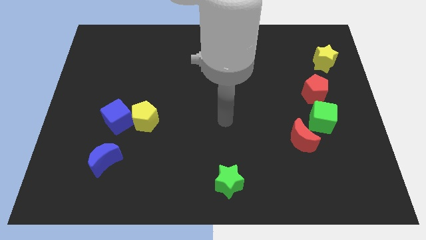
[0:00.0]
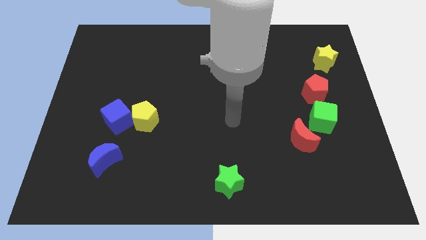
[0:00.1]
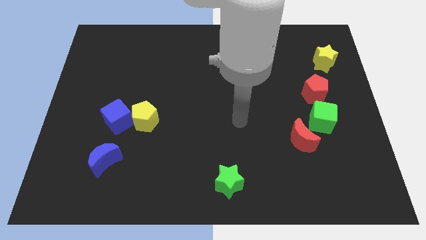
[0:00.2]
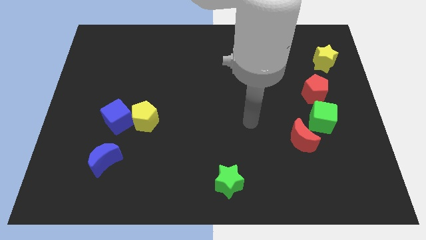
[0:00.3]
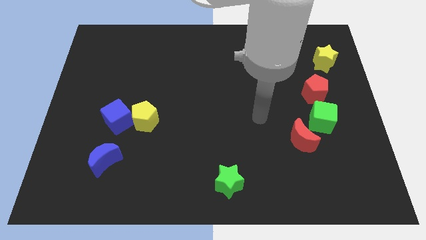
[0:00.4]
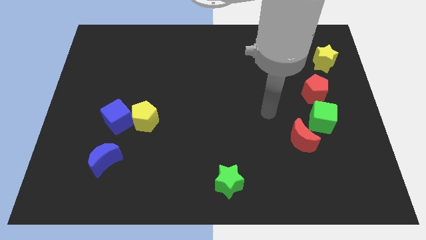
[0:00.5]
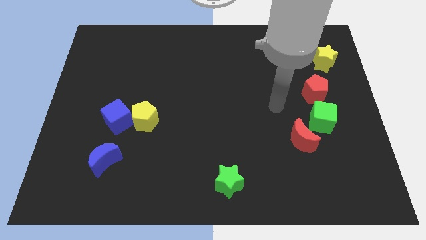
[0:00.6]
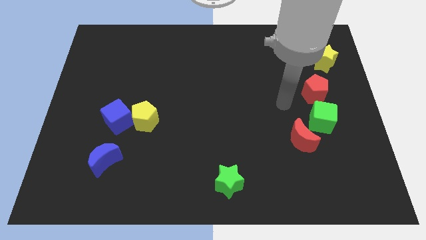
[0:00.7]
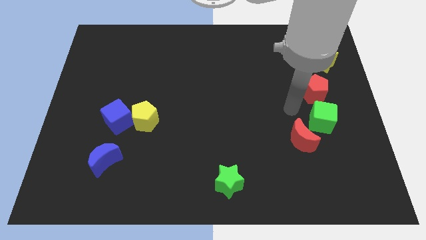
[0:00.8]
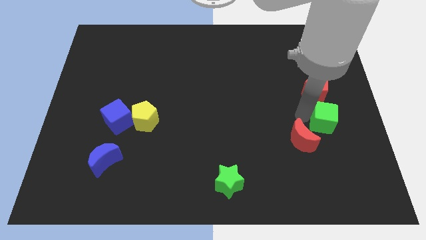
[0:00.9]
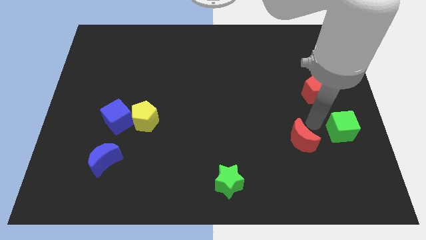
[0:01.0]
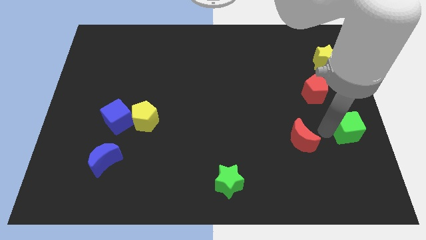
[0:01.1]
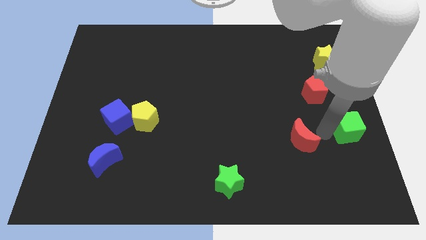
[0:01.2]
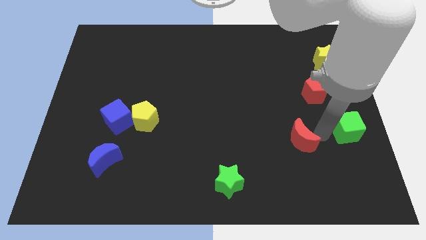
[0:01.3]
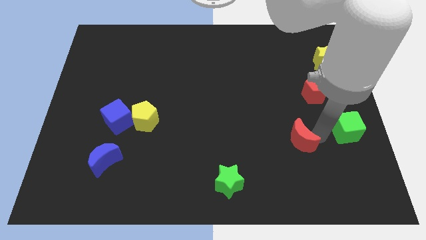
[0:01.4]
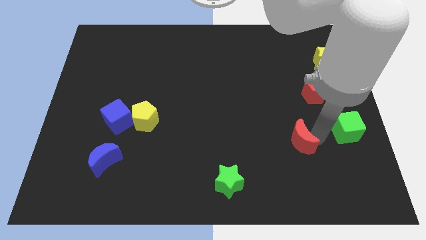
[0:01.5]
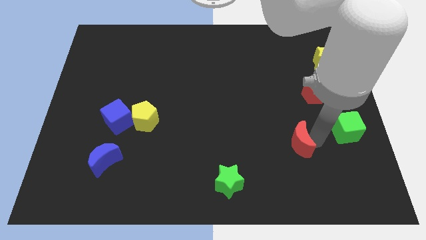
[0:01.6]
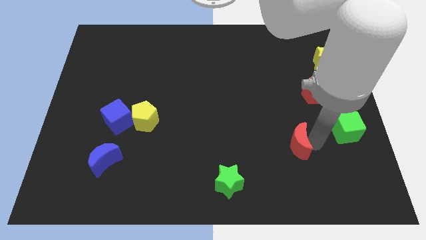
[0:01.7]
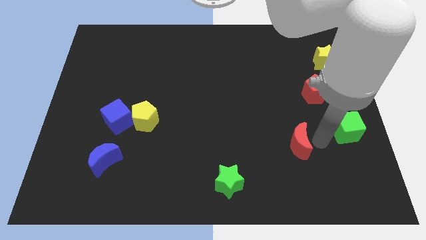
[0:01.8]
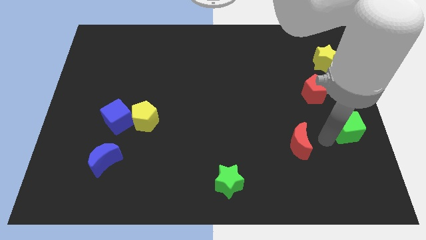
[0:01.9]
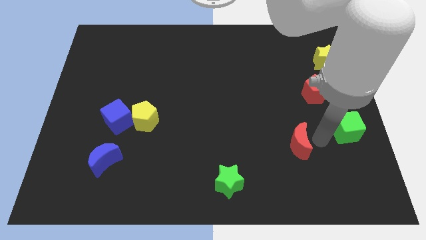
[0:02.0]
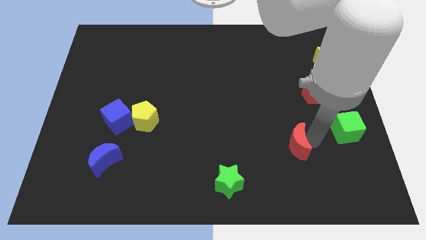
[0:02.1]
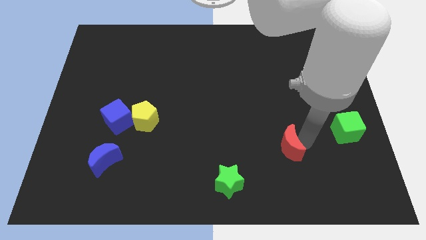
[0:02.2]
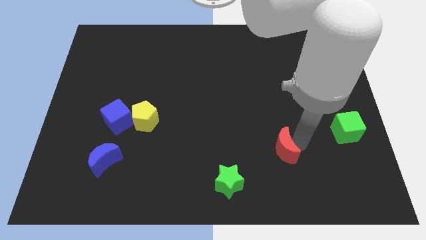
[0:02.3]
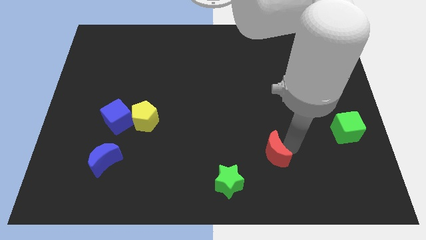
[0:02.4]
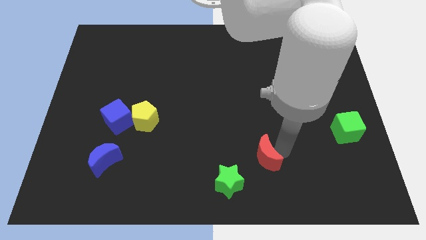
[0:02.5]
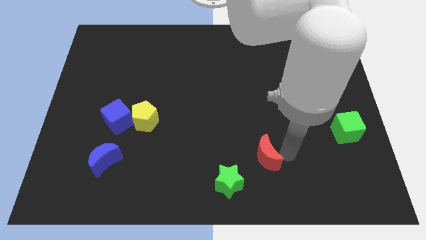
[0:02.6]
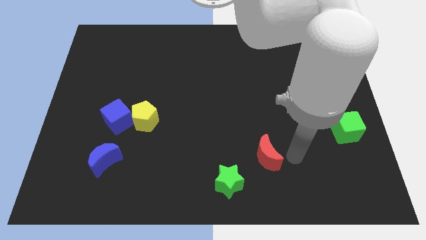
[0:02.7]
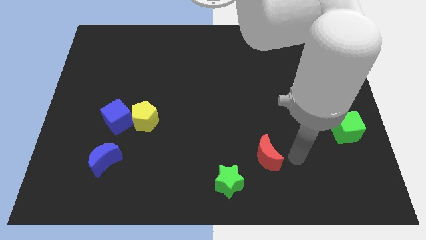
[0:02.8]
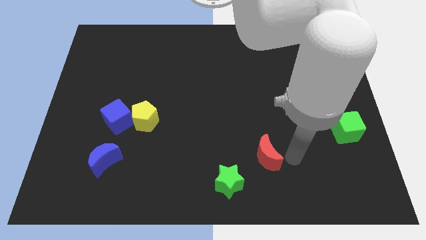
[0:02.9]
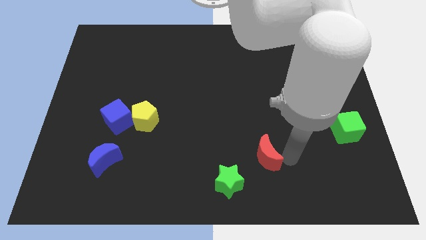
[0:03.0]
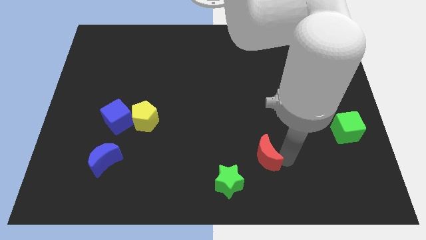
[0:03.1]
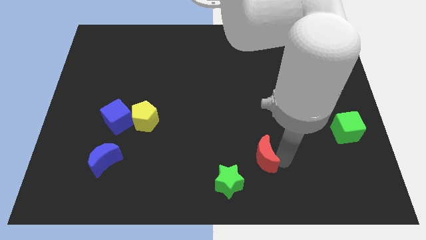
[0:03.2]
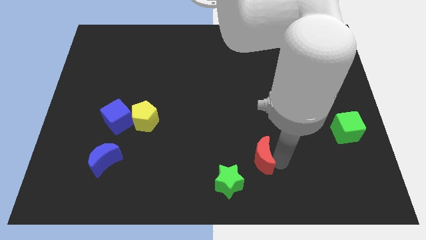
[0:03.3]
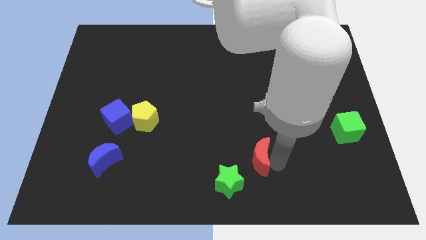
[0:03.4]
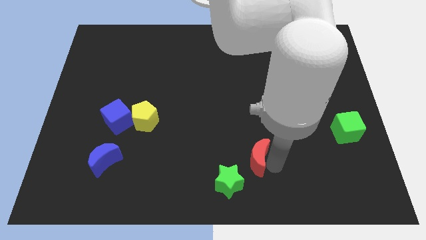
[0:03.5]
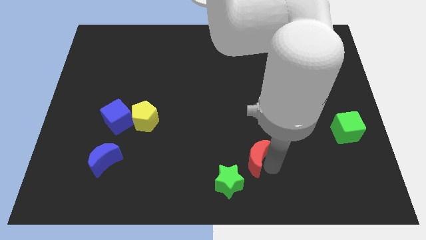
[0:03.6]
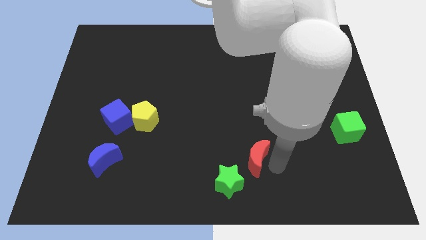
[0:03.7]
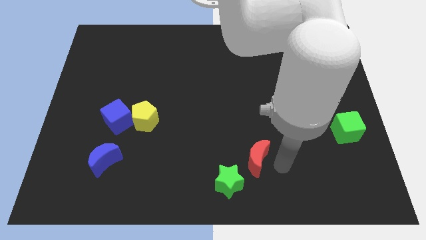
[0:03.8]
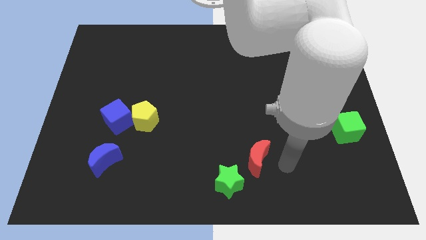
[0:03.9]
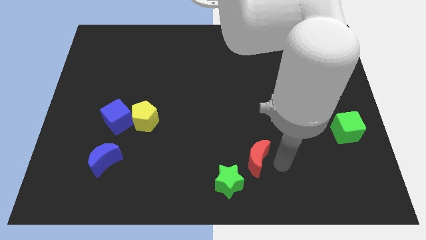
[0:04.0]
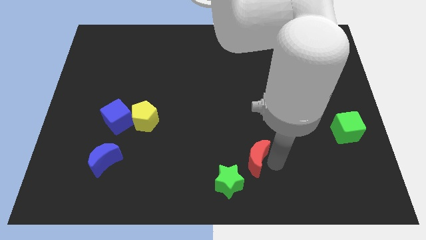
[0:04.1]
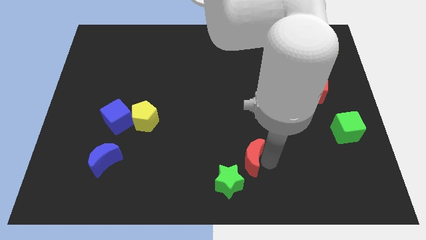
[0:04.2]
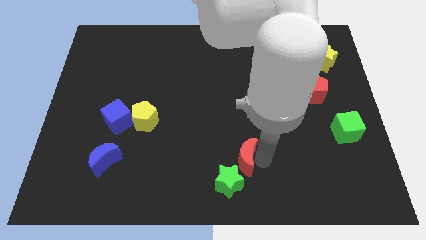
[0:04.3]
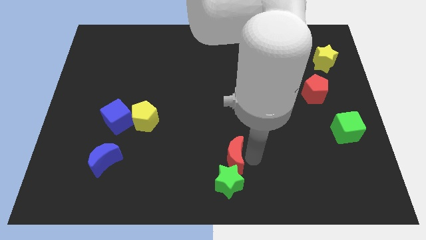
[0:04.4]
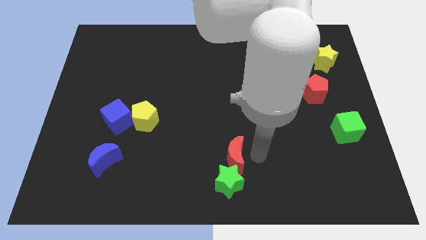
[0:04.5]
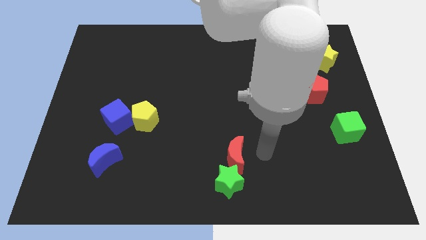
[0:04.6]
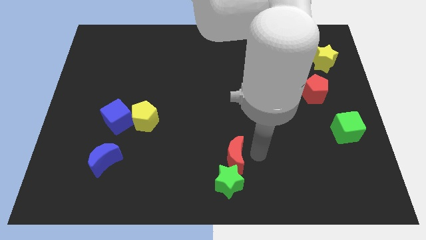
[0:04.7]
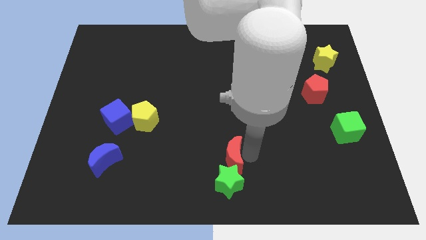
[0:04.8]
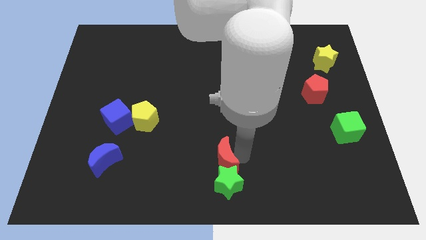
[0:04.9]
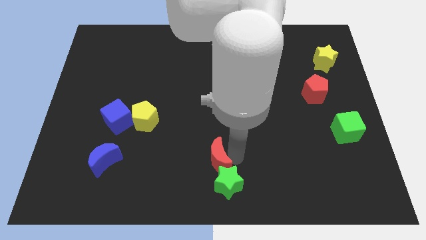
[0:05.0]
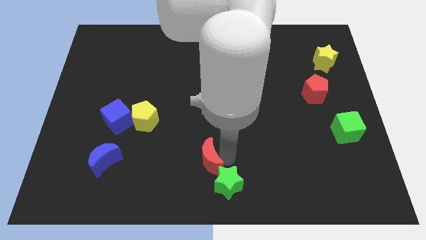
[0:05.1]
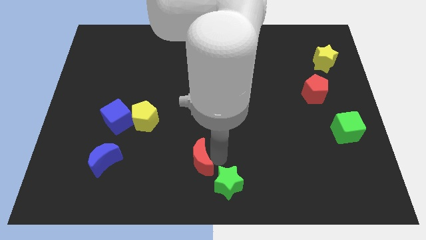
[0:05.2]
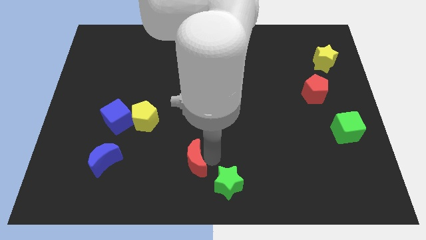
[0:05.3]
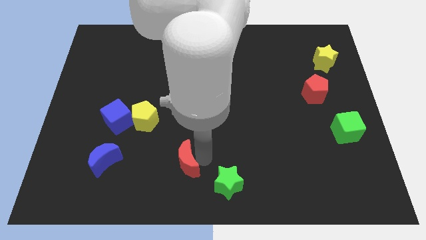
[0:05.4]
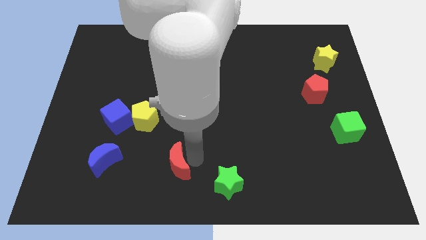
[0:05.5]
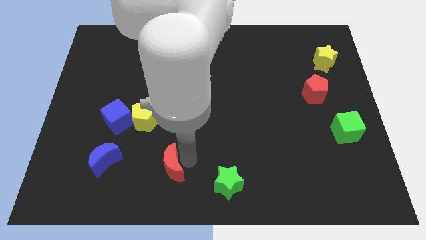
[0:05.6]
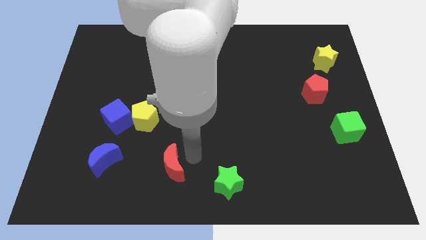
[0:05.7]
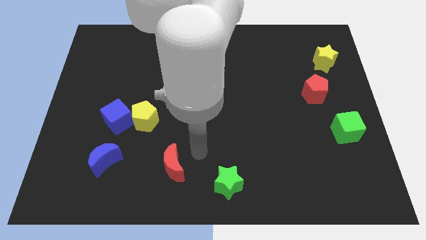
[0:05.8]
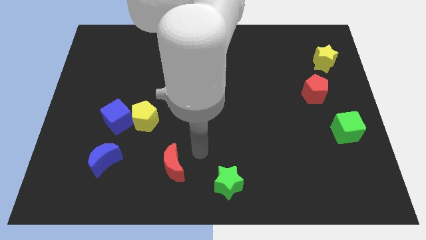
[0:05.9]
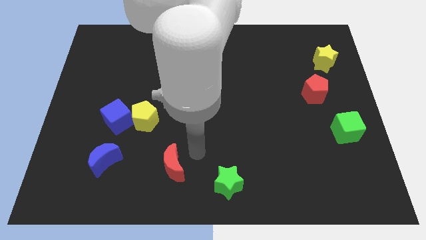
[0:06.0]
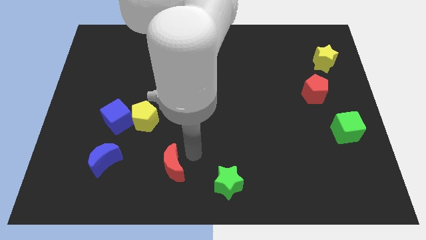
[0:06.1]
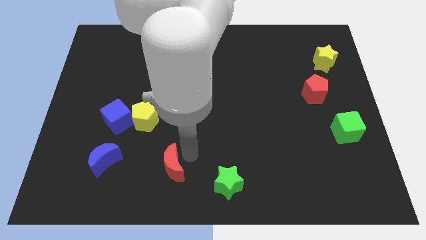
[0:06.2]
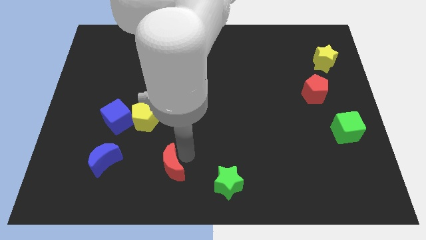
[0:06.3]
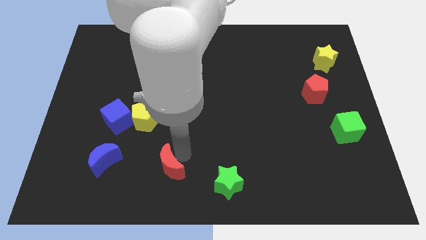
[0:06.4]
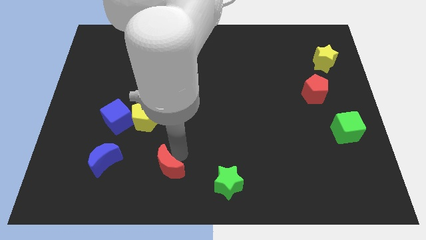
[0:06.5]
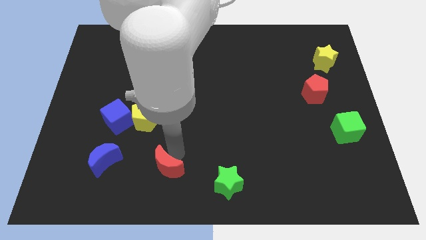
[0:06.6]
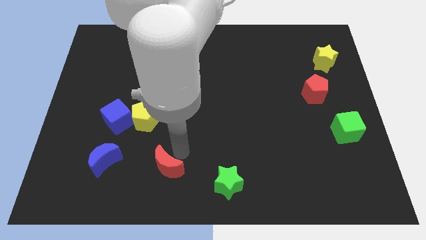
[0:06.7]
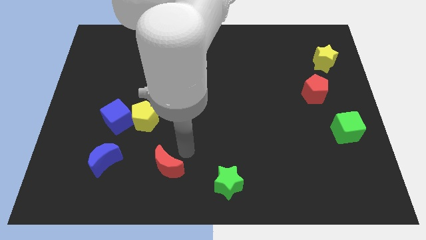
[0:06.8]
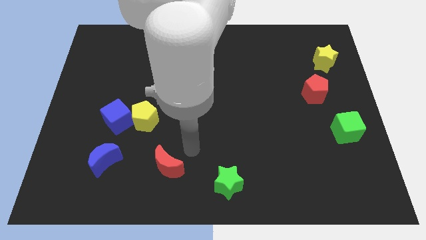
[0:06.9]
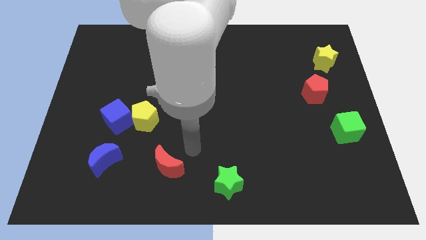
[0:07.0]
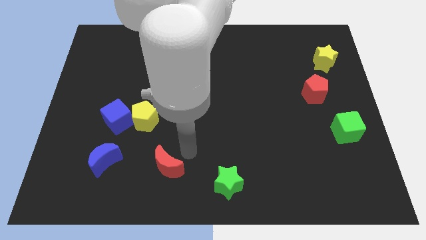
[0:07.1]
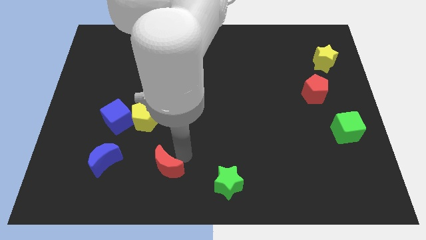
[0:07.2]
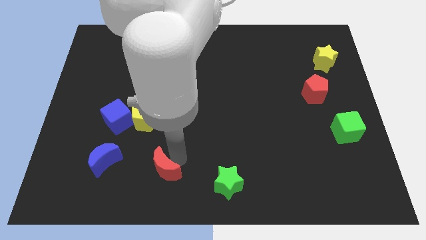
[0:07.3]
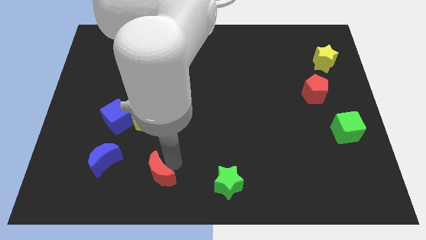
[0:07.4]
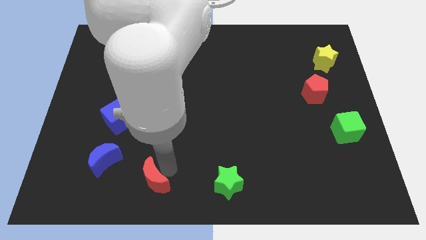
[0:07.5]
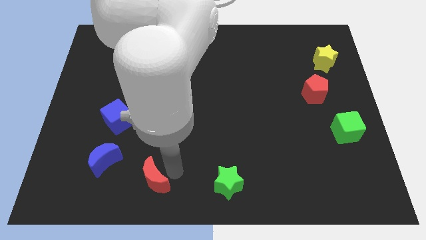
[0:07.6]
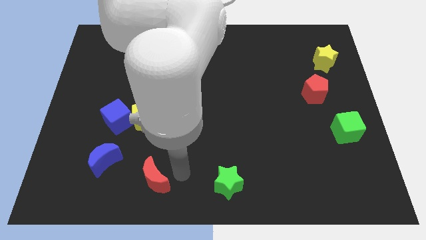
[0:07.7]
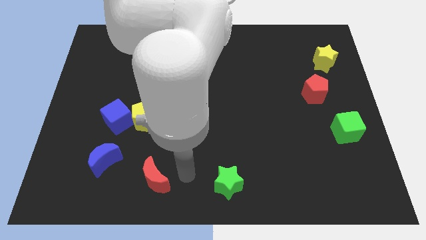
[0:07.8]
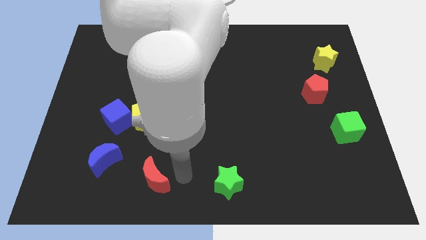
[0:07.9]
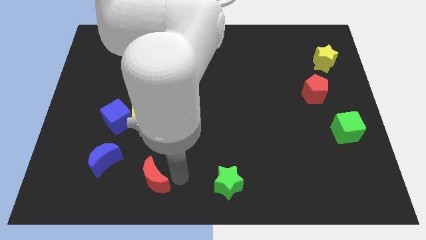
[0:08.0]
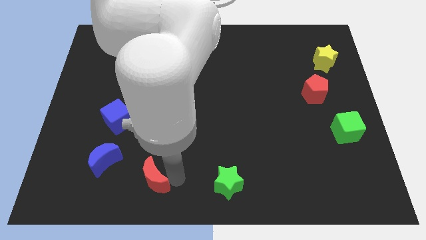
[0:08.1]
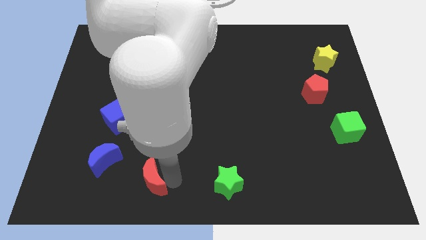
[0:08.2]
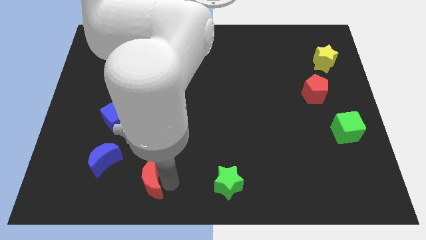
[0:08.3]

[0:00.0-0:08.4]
slide the red moon diagonally down and to the right of the blue moon
